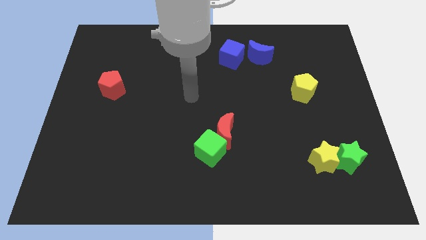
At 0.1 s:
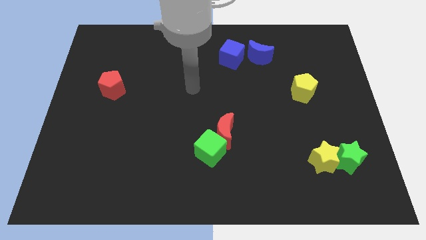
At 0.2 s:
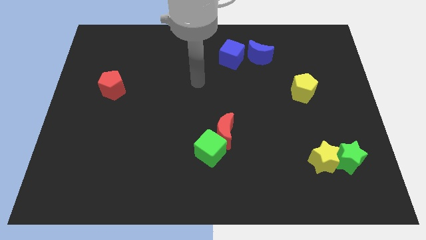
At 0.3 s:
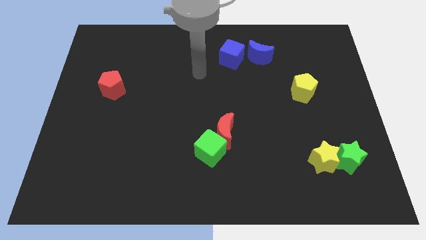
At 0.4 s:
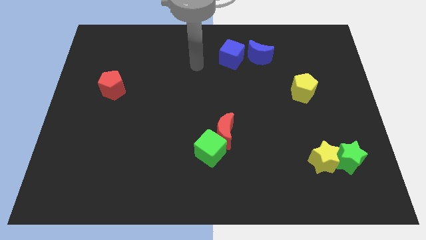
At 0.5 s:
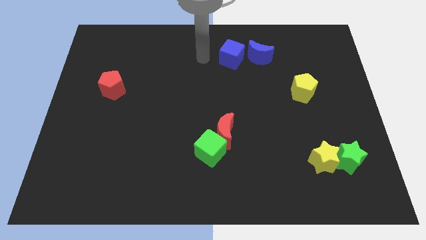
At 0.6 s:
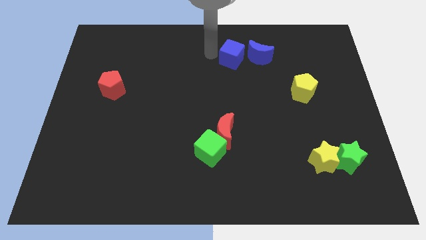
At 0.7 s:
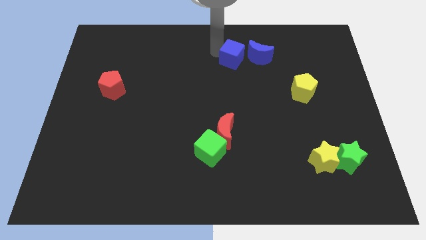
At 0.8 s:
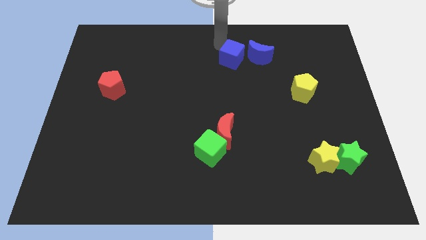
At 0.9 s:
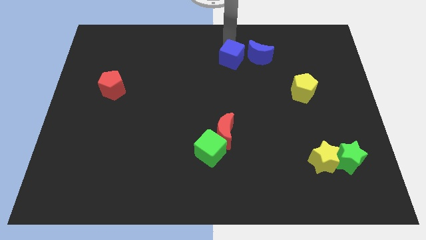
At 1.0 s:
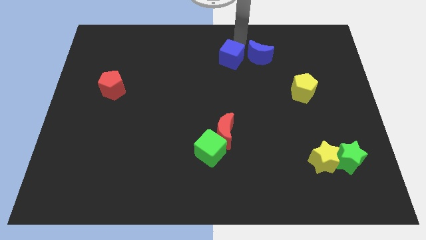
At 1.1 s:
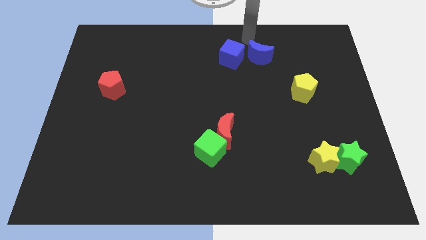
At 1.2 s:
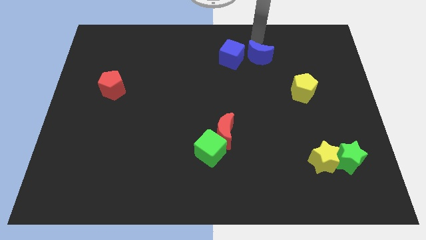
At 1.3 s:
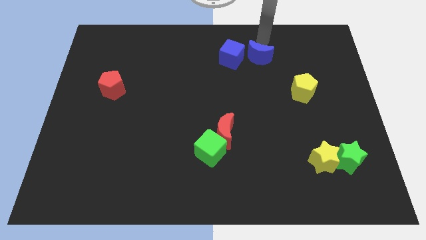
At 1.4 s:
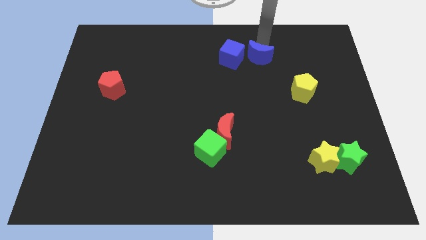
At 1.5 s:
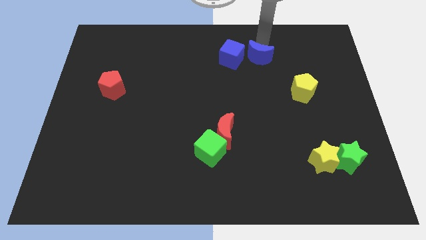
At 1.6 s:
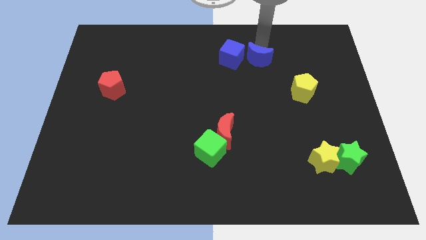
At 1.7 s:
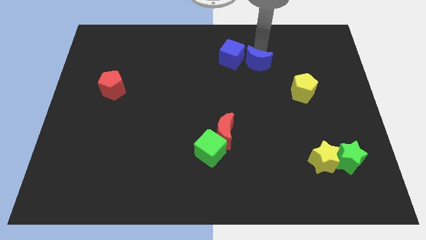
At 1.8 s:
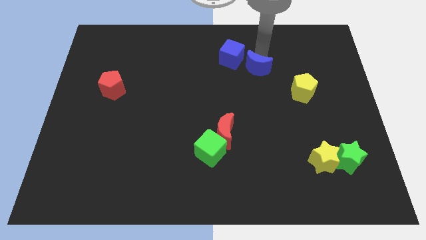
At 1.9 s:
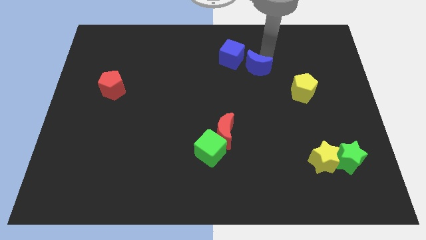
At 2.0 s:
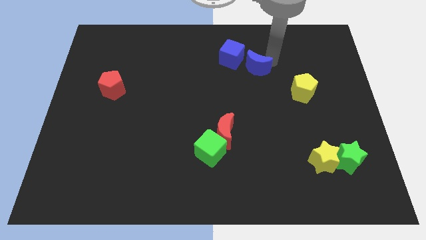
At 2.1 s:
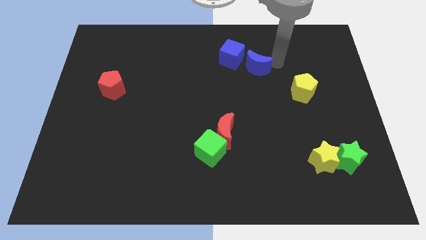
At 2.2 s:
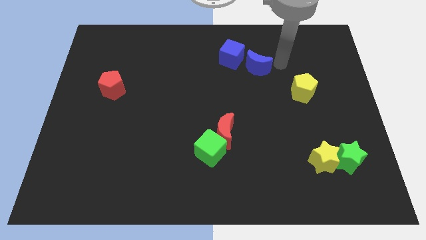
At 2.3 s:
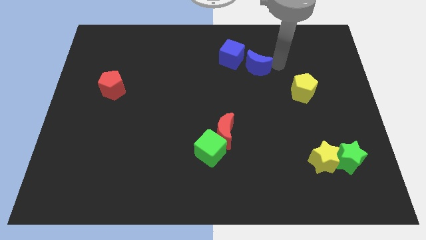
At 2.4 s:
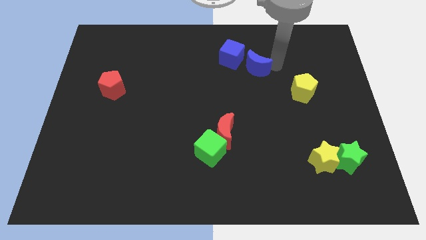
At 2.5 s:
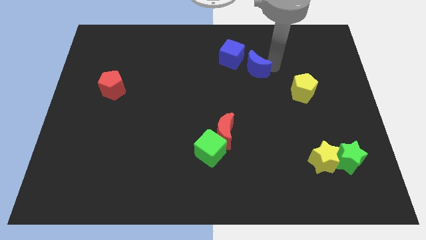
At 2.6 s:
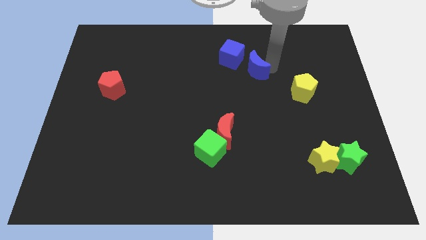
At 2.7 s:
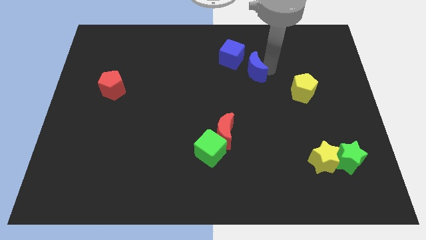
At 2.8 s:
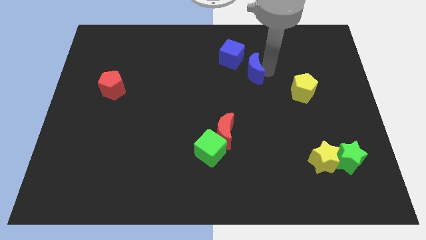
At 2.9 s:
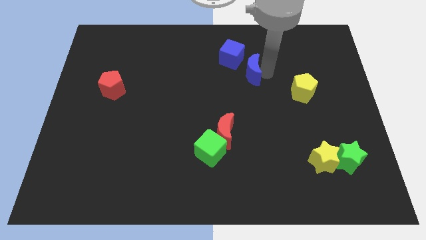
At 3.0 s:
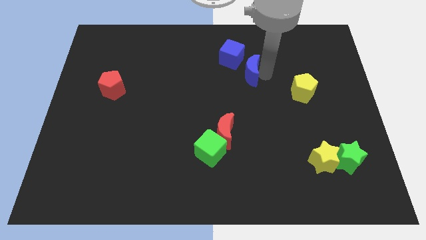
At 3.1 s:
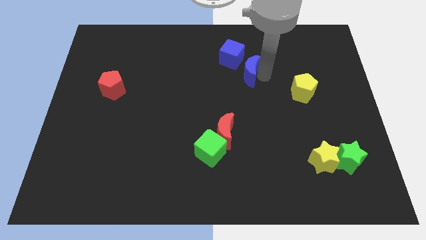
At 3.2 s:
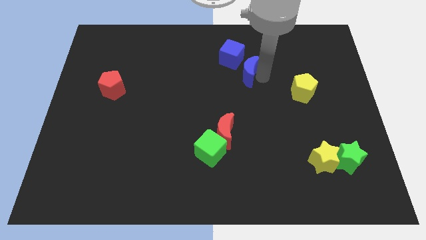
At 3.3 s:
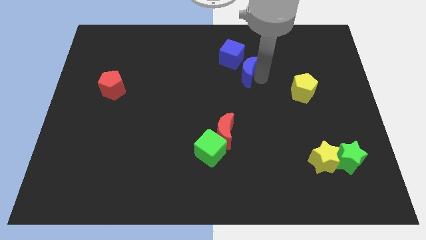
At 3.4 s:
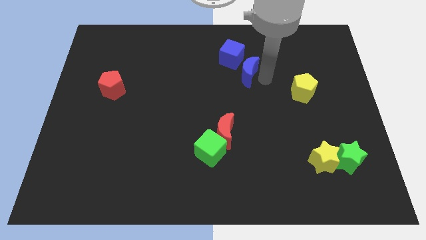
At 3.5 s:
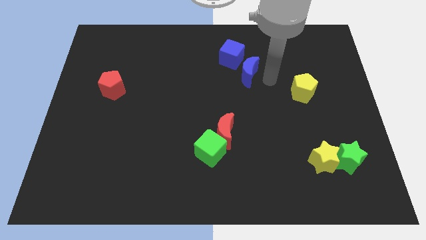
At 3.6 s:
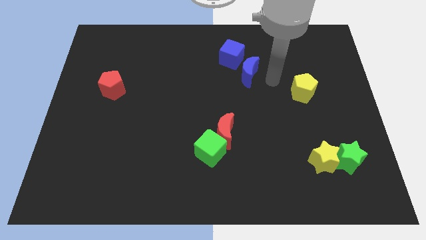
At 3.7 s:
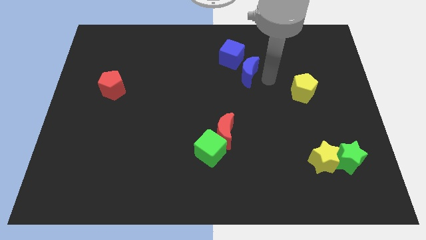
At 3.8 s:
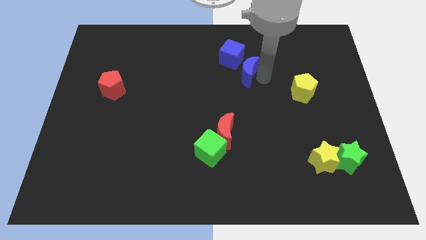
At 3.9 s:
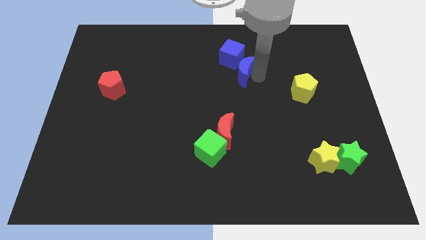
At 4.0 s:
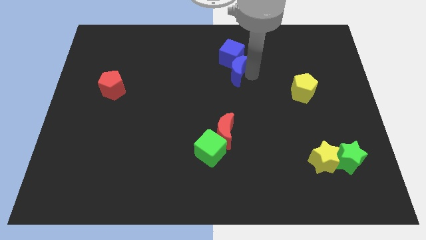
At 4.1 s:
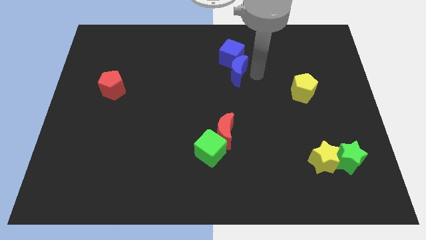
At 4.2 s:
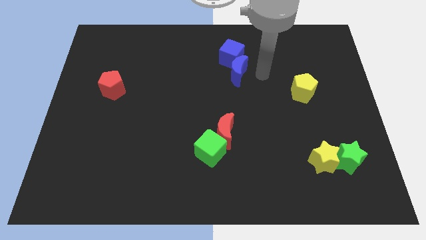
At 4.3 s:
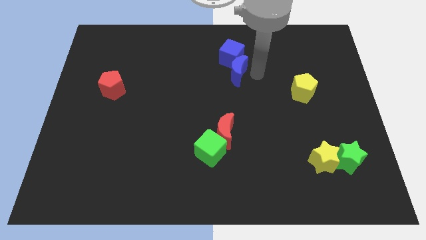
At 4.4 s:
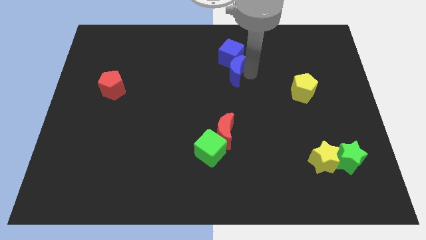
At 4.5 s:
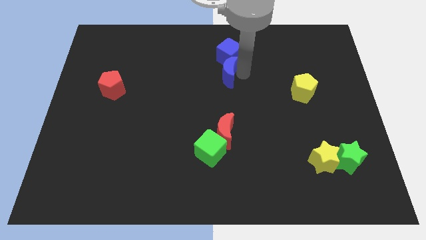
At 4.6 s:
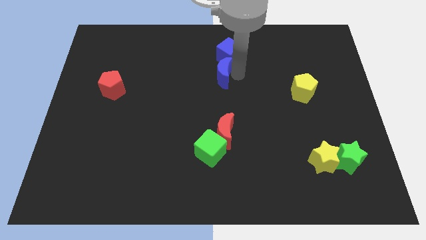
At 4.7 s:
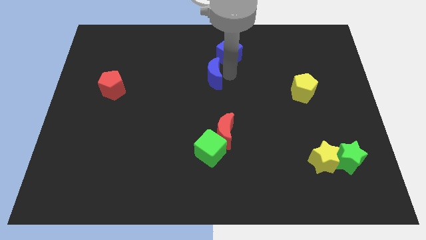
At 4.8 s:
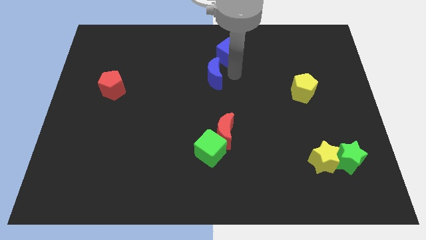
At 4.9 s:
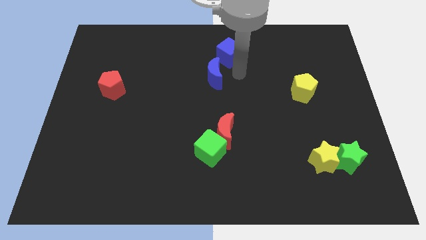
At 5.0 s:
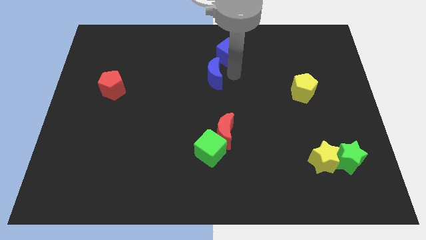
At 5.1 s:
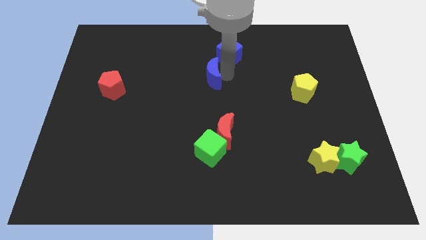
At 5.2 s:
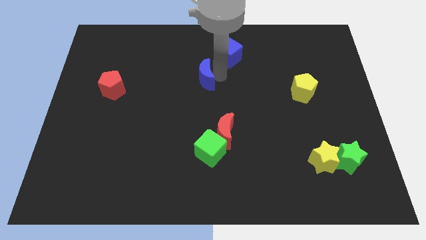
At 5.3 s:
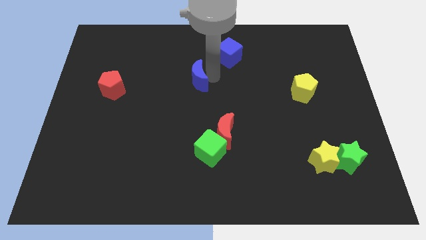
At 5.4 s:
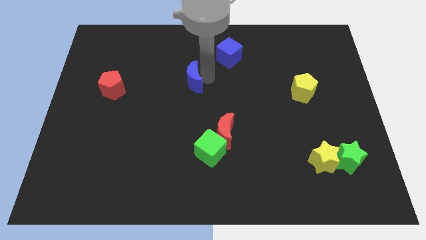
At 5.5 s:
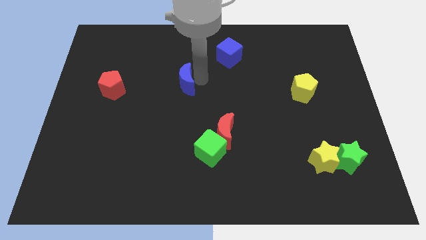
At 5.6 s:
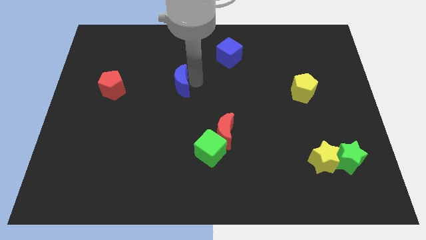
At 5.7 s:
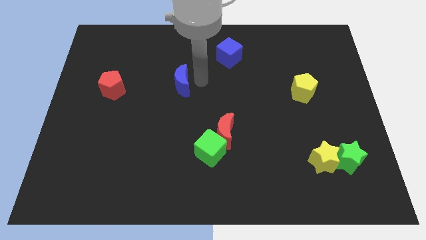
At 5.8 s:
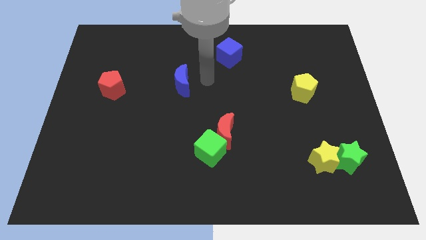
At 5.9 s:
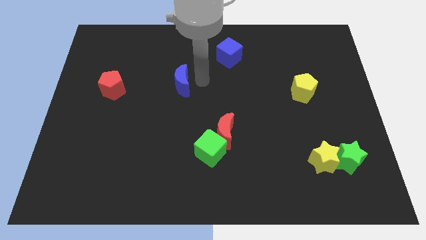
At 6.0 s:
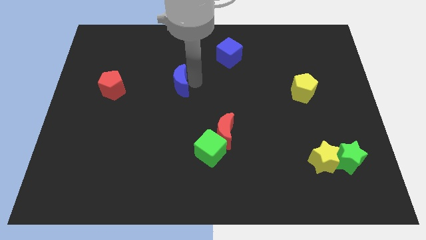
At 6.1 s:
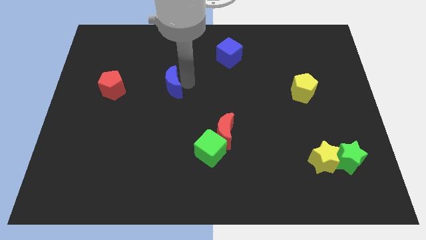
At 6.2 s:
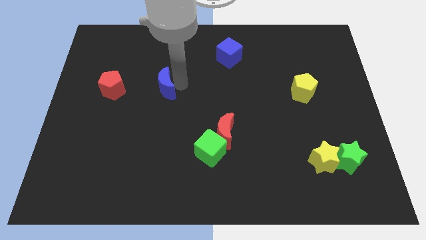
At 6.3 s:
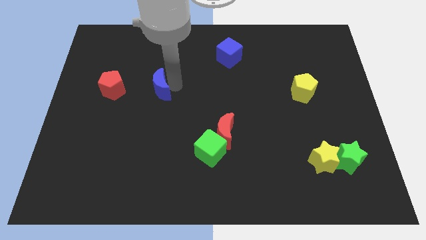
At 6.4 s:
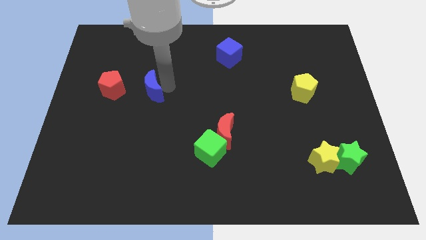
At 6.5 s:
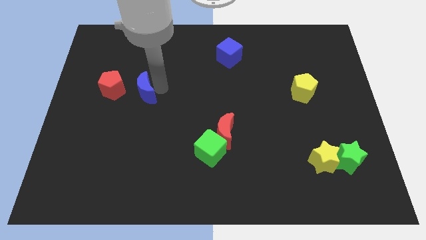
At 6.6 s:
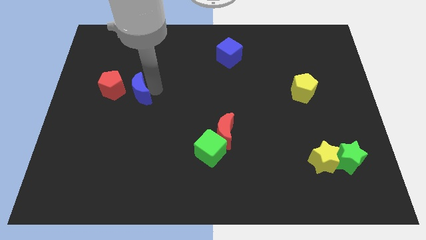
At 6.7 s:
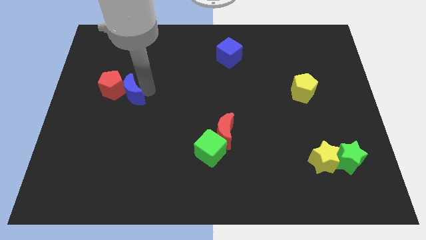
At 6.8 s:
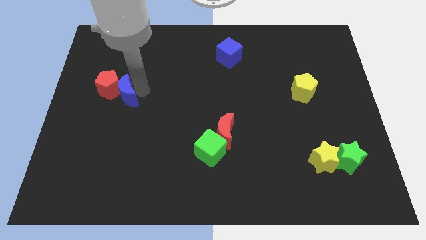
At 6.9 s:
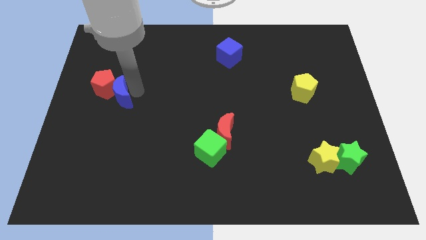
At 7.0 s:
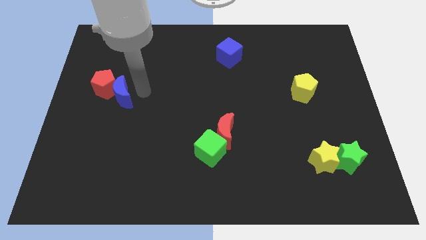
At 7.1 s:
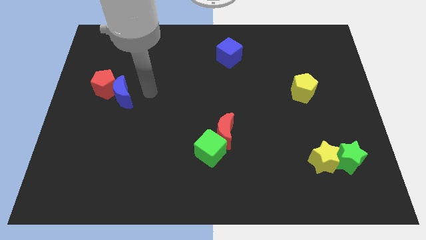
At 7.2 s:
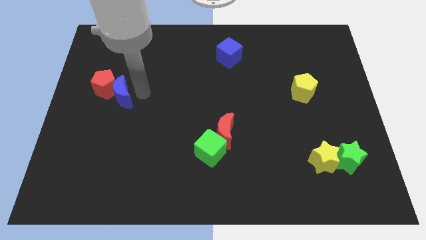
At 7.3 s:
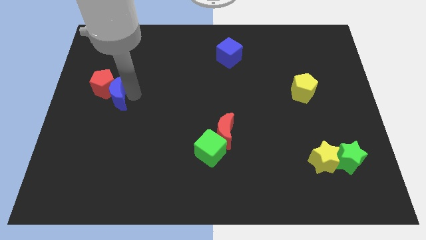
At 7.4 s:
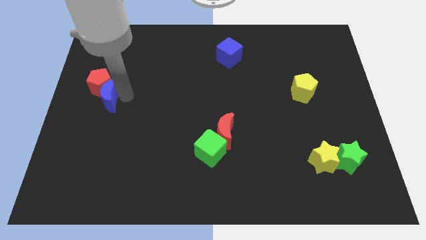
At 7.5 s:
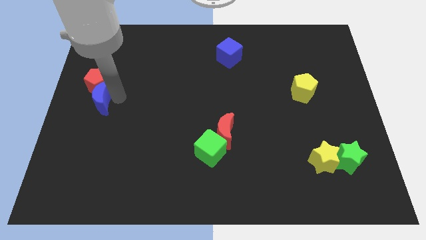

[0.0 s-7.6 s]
push the blue moon to the left side of the board
